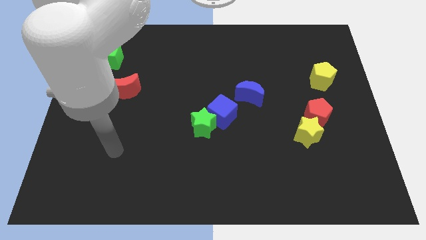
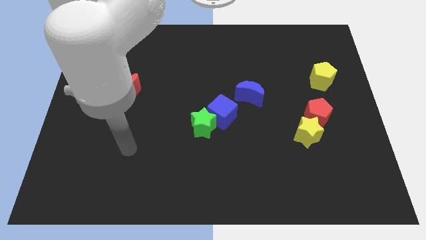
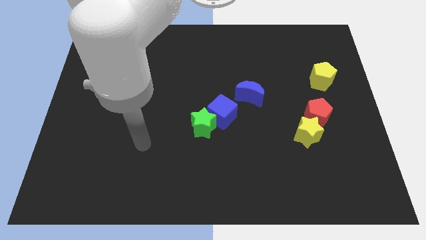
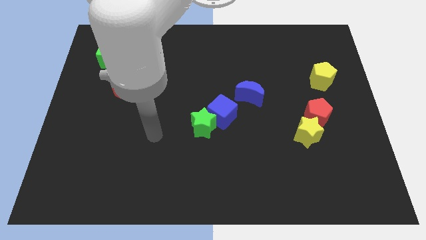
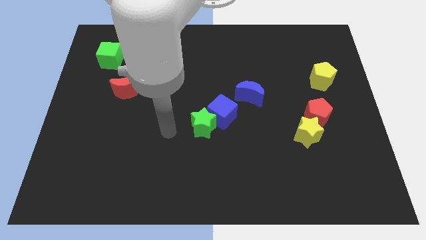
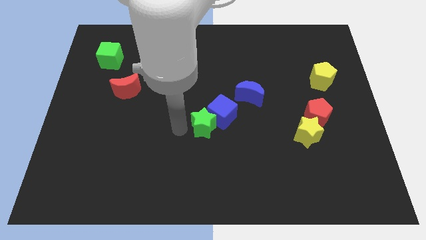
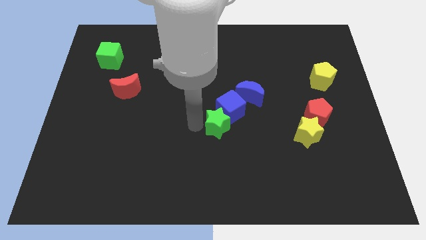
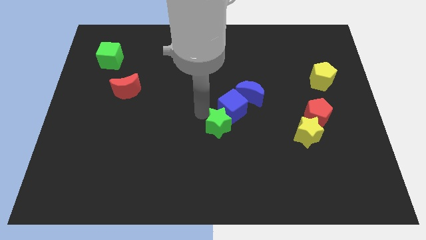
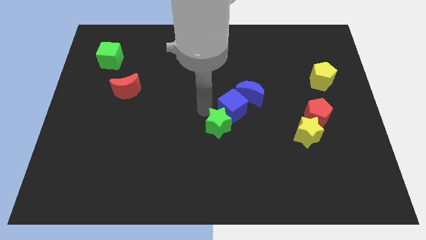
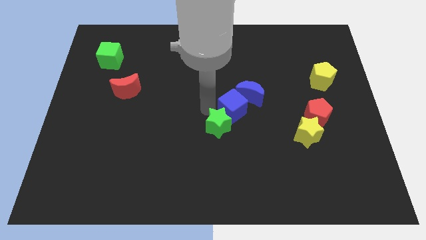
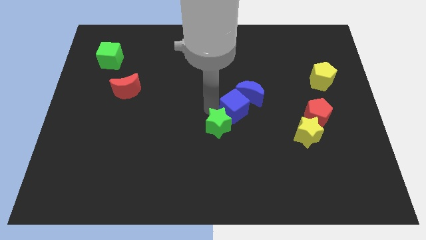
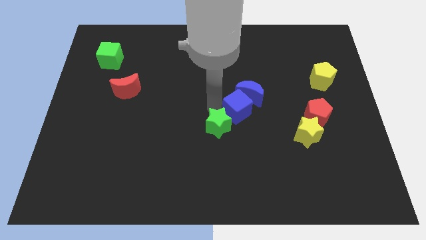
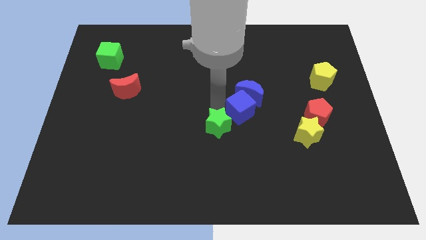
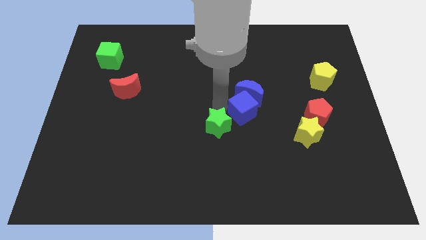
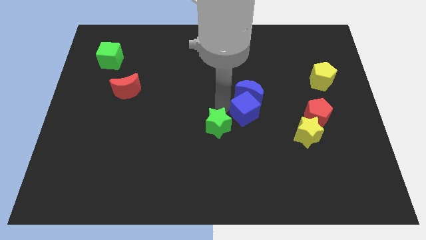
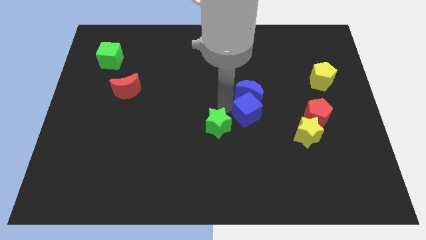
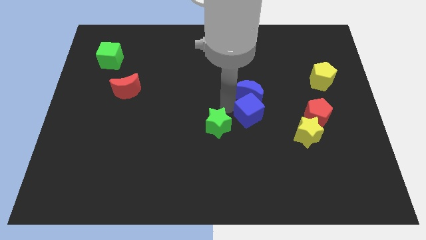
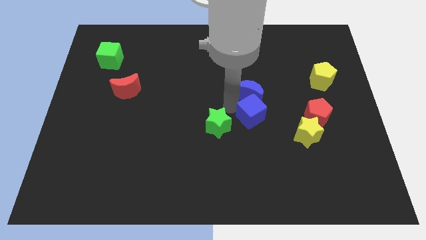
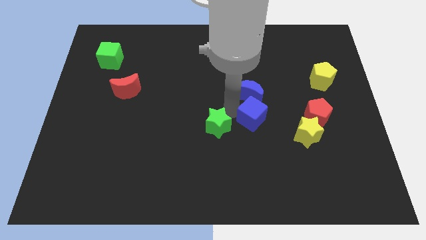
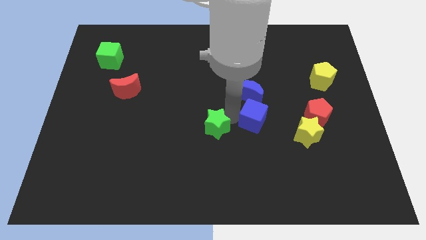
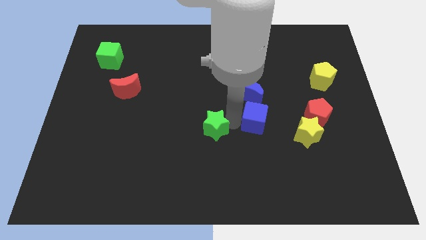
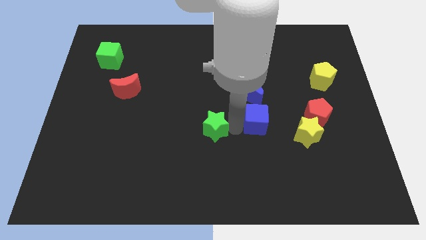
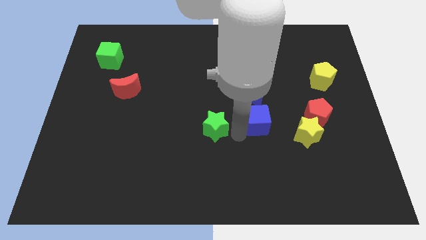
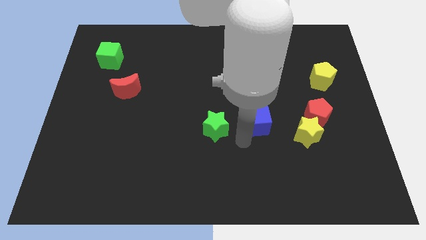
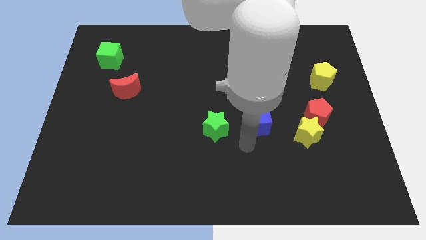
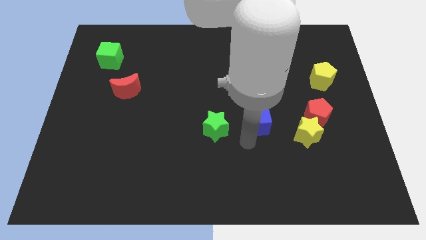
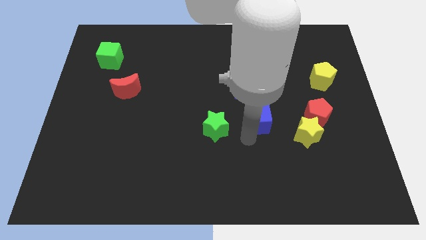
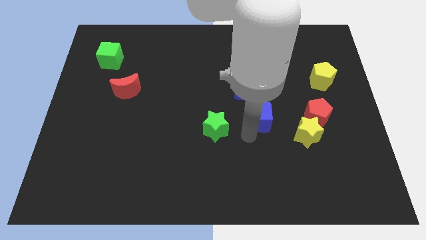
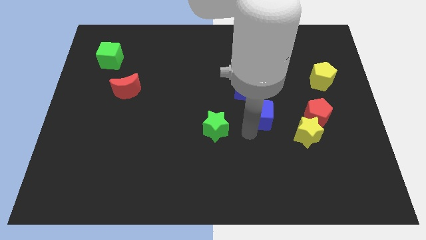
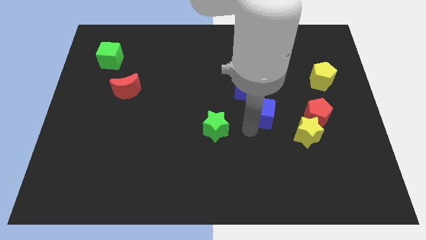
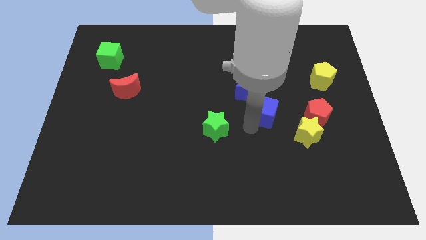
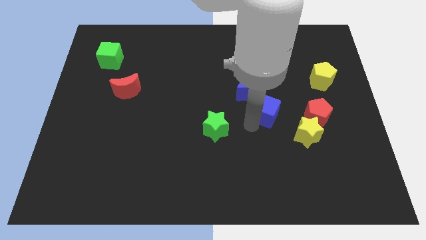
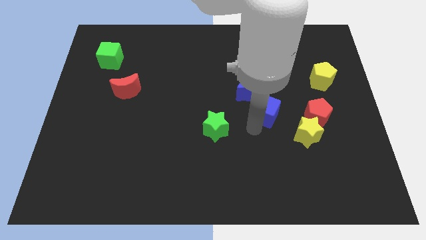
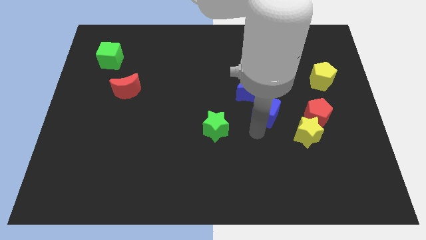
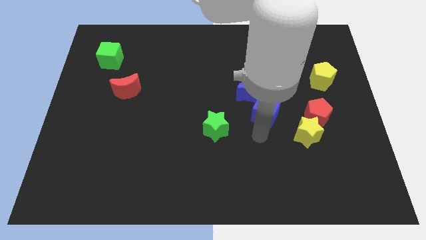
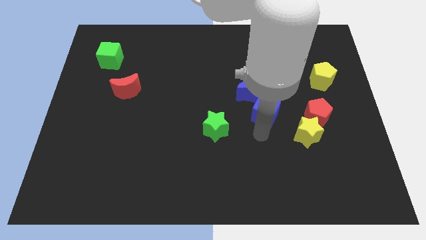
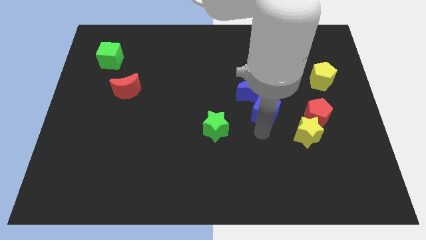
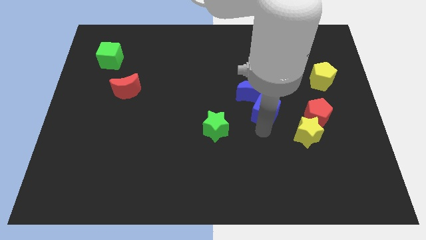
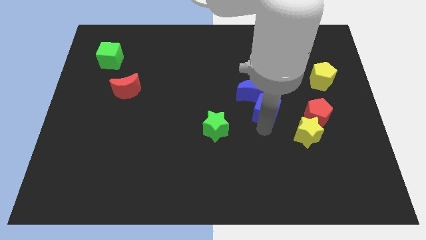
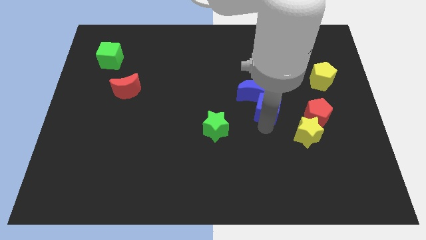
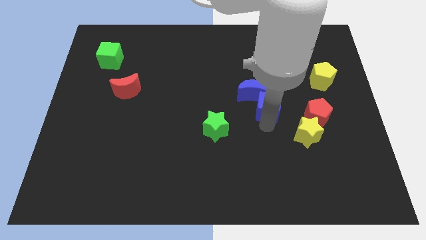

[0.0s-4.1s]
slide the blue cube a little upwards and right diagonally

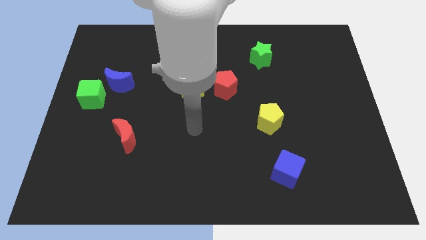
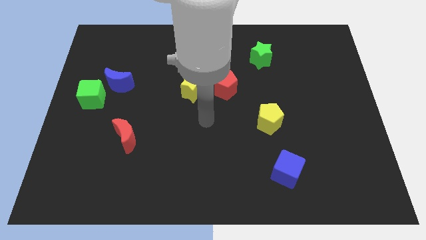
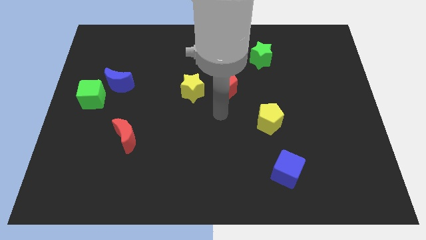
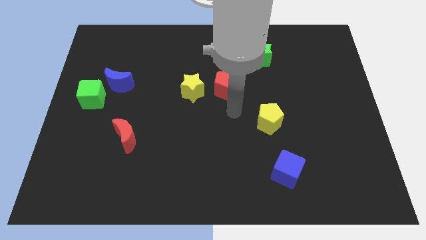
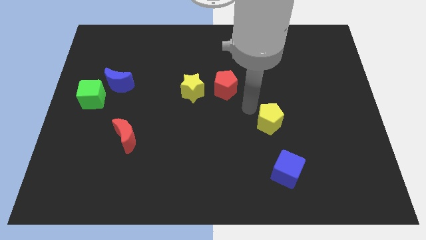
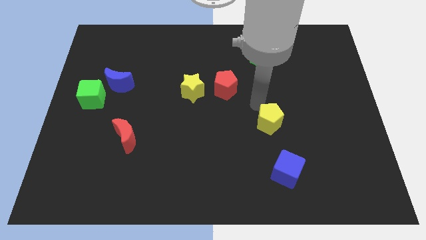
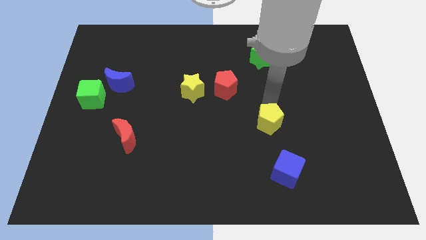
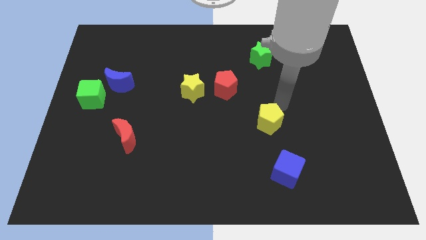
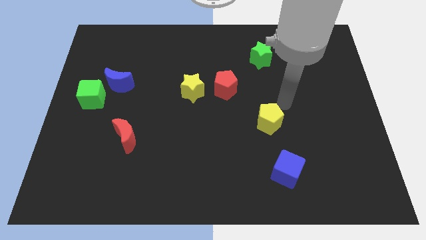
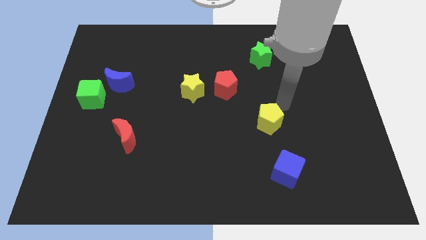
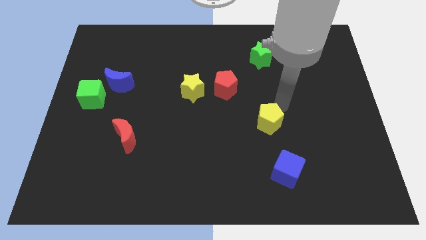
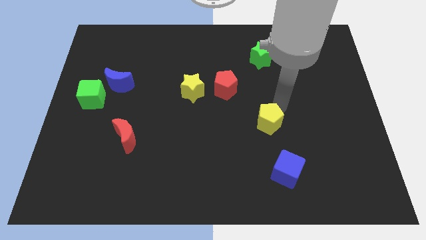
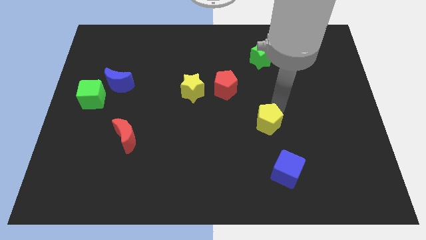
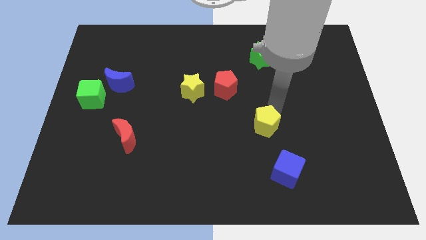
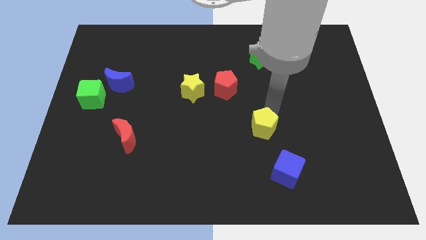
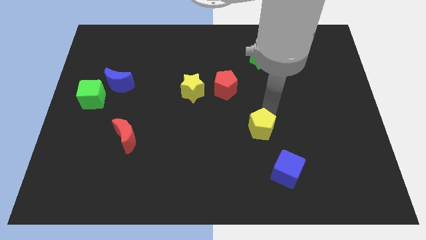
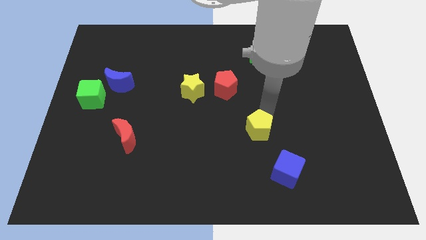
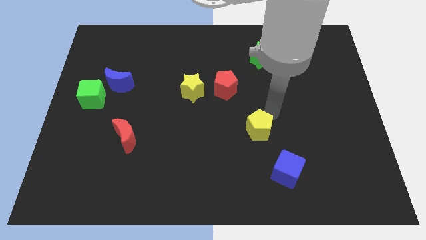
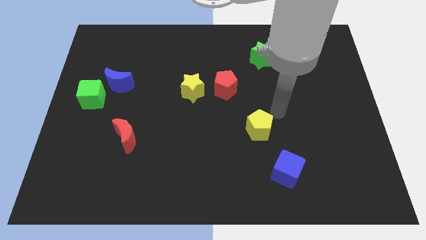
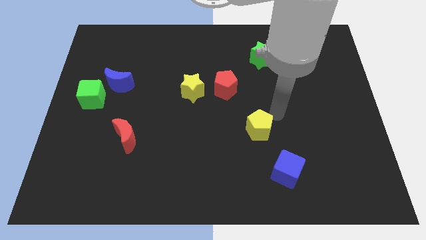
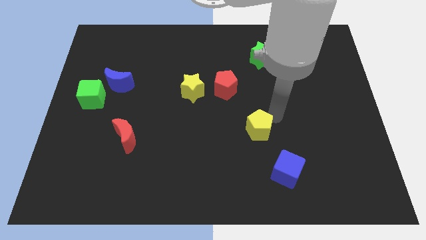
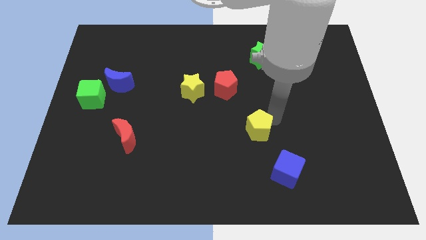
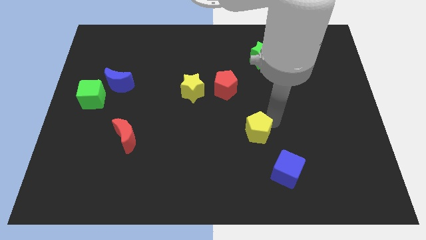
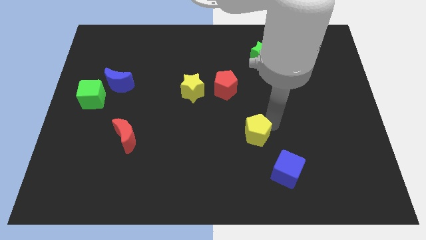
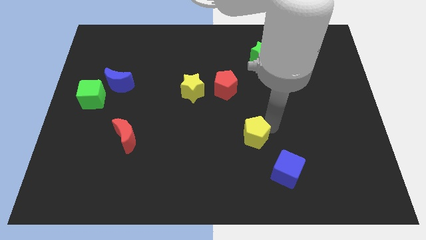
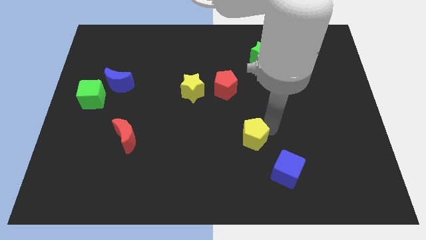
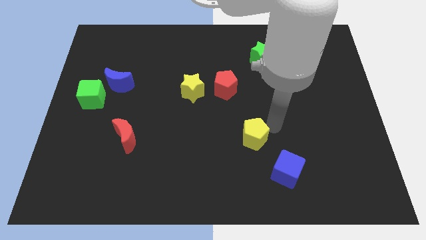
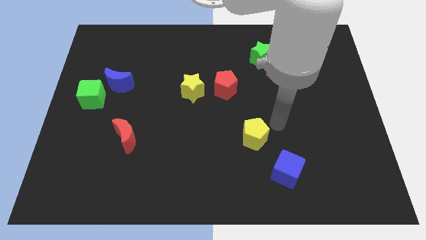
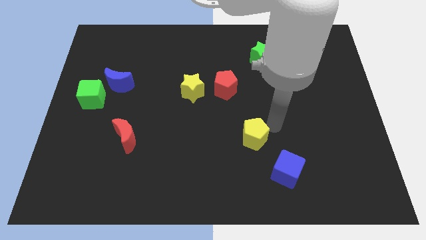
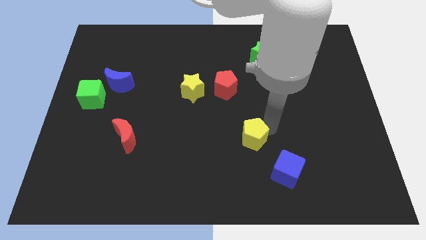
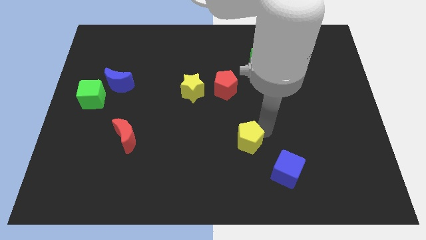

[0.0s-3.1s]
slightly move the yellow pentagon down and then left

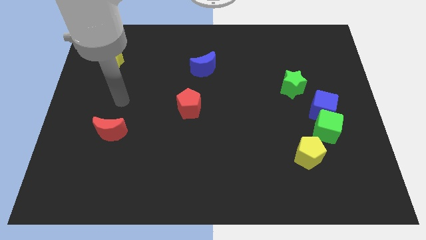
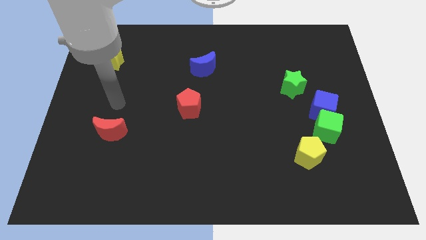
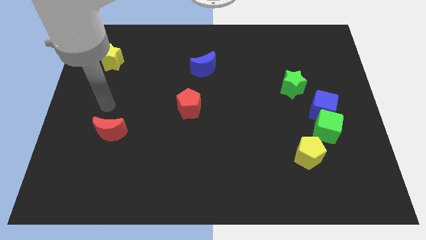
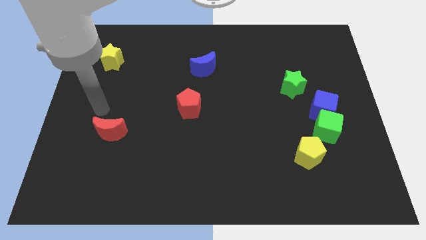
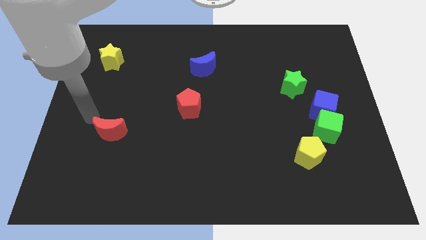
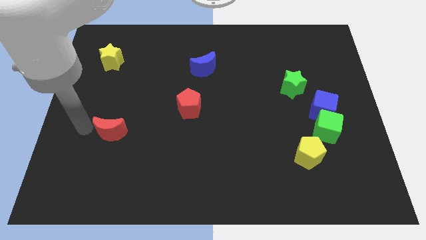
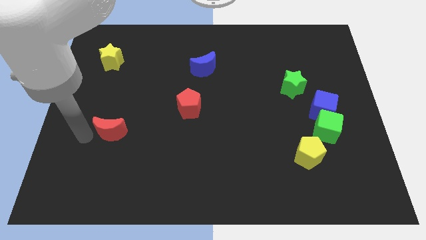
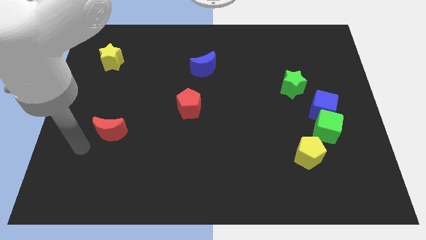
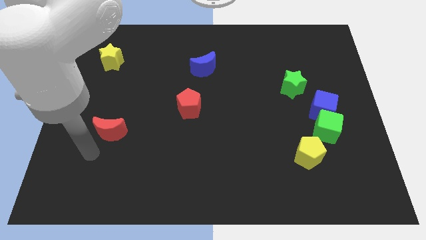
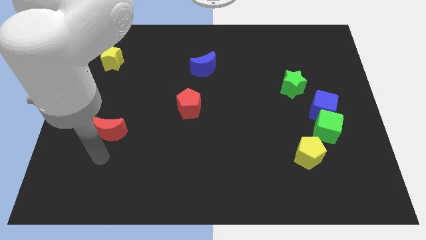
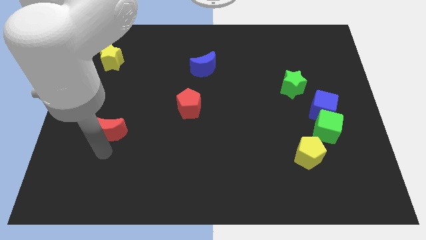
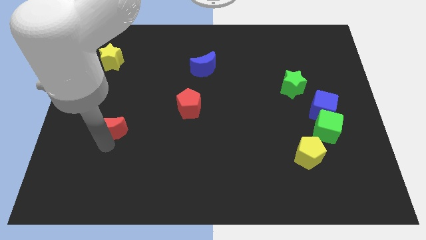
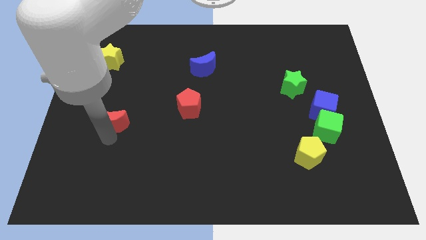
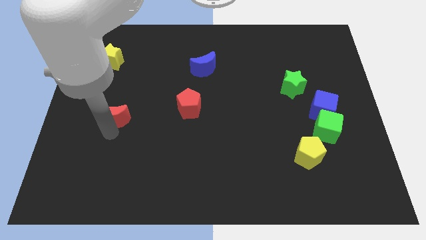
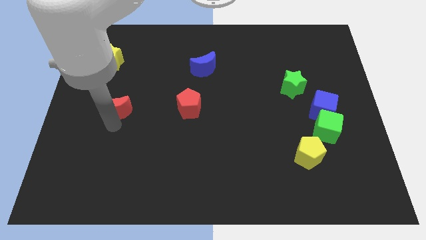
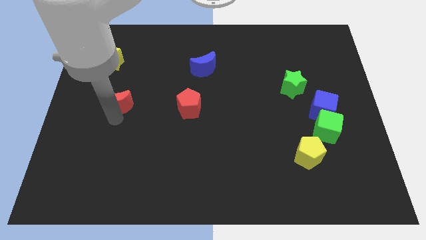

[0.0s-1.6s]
move the red moon upwards somewhat
